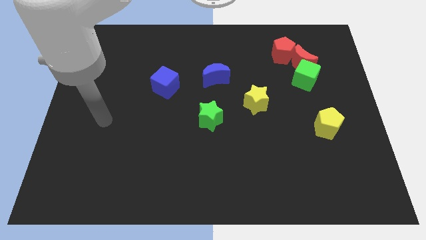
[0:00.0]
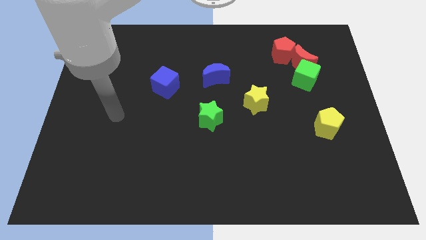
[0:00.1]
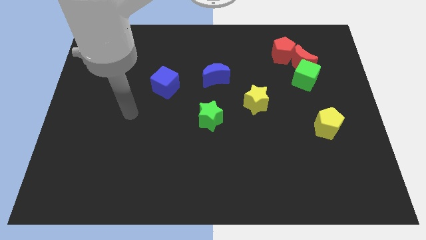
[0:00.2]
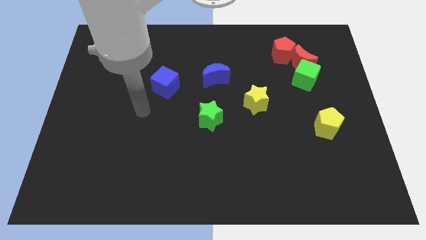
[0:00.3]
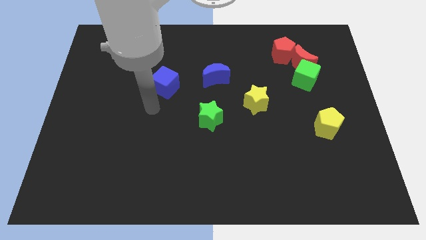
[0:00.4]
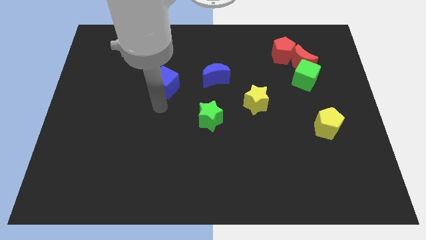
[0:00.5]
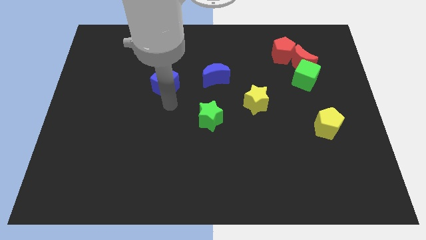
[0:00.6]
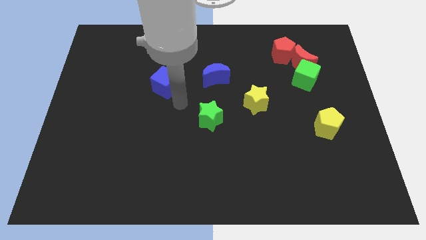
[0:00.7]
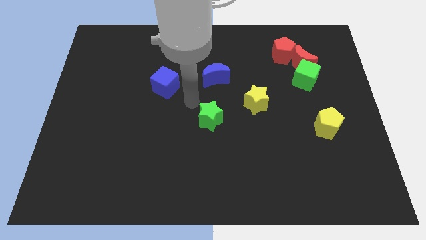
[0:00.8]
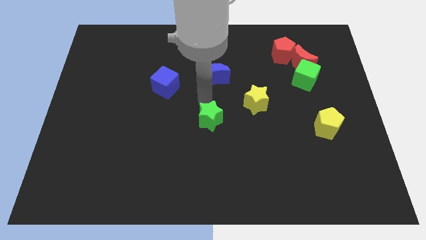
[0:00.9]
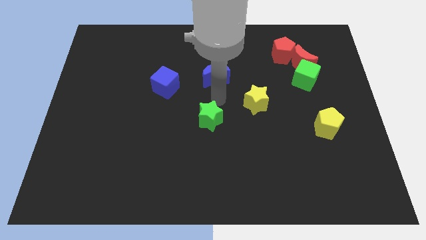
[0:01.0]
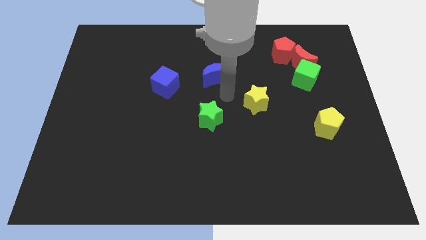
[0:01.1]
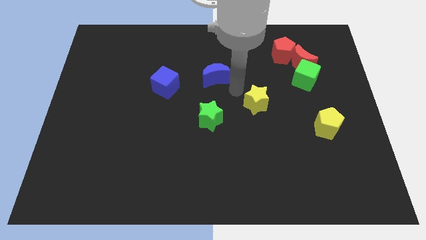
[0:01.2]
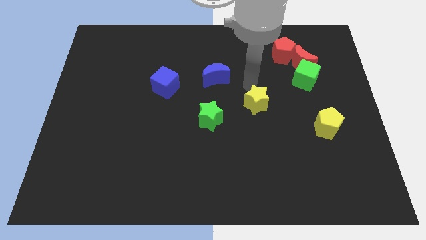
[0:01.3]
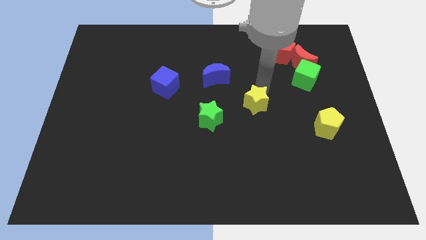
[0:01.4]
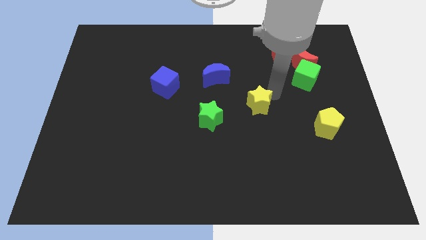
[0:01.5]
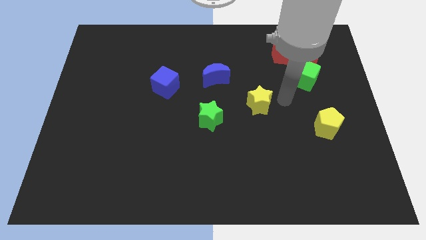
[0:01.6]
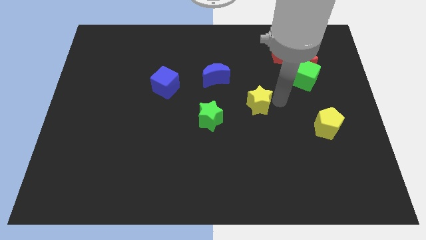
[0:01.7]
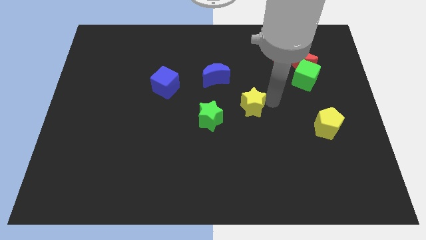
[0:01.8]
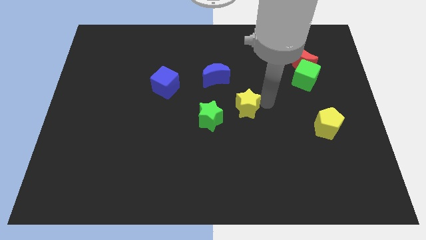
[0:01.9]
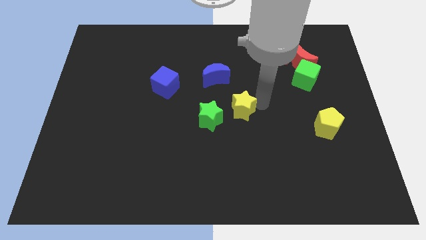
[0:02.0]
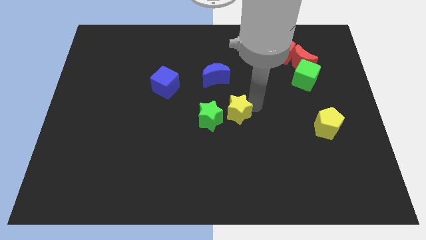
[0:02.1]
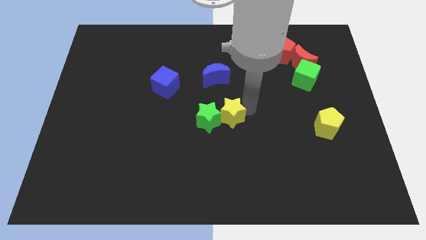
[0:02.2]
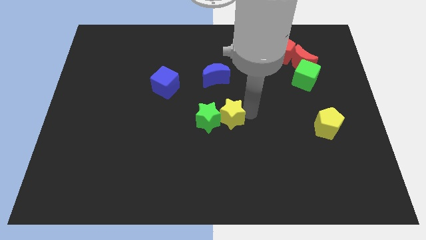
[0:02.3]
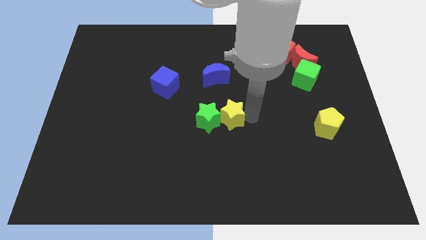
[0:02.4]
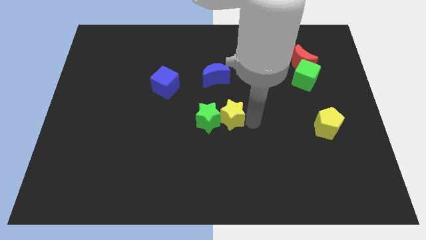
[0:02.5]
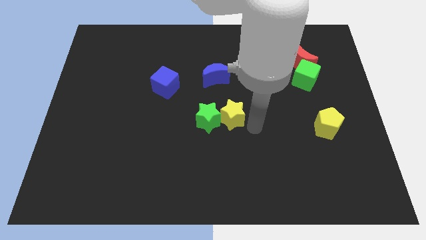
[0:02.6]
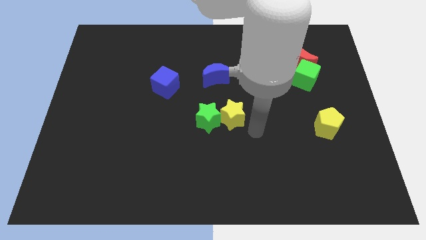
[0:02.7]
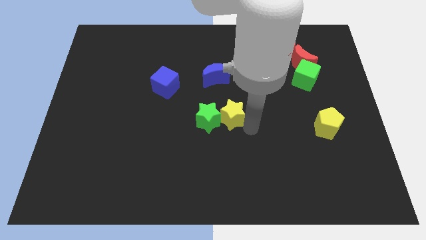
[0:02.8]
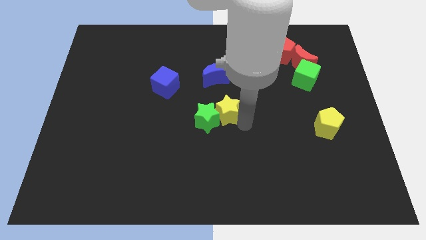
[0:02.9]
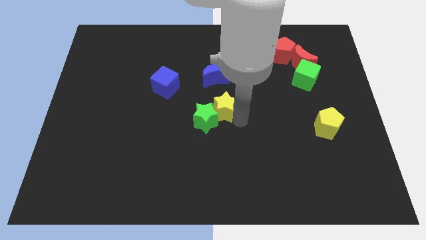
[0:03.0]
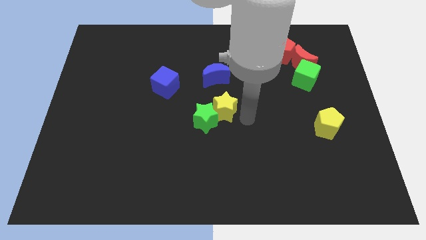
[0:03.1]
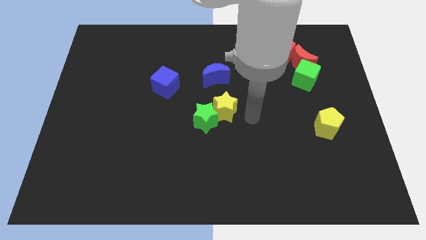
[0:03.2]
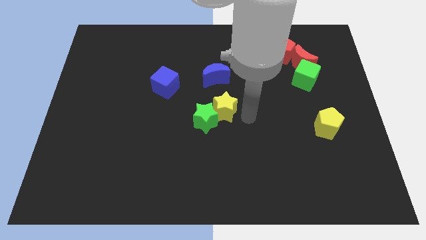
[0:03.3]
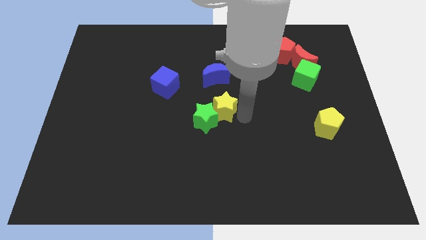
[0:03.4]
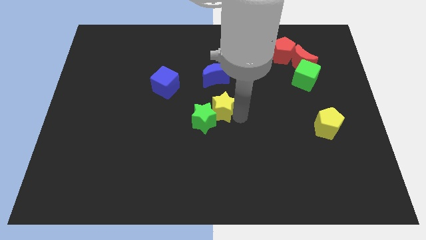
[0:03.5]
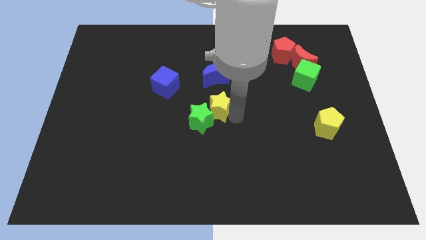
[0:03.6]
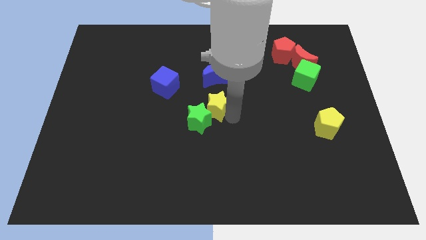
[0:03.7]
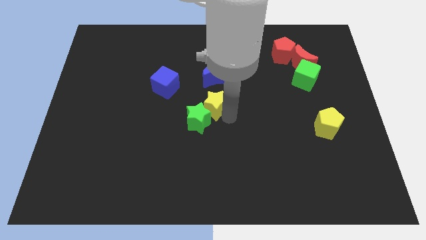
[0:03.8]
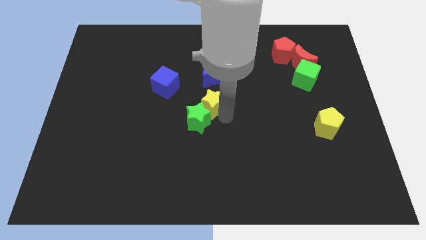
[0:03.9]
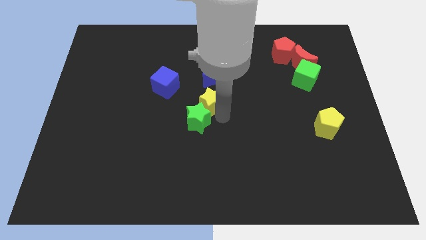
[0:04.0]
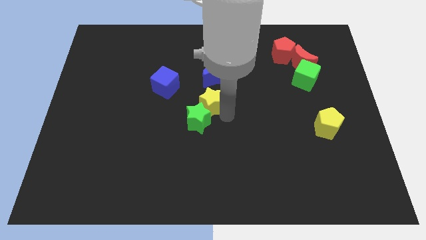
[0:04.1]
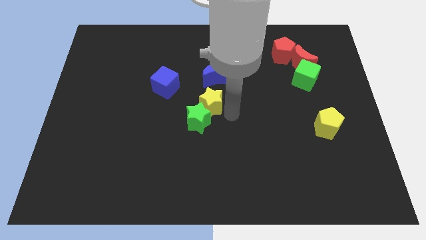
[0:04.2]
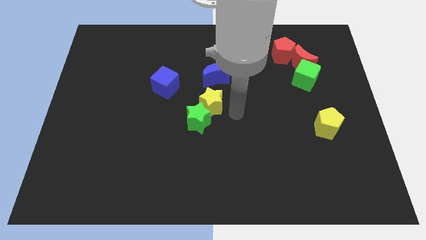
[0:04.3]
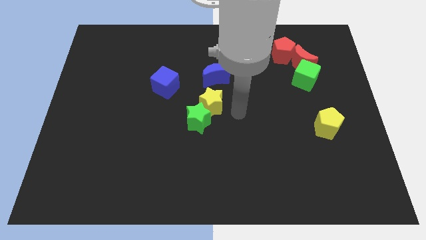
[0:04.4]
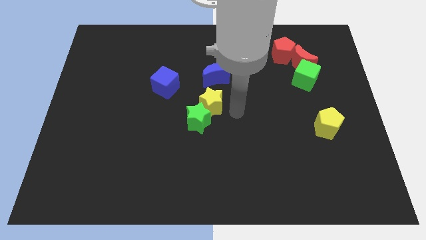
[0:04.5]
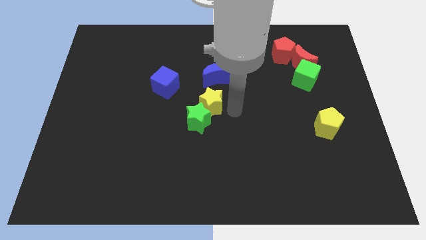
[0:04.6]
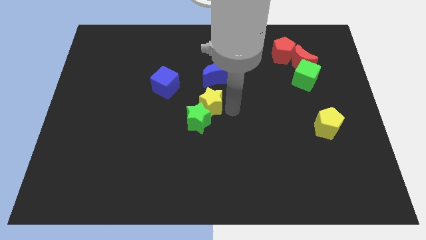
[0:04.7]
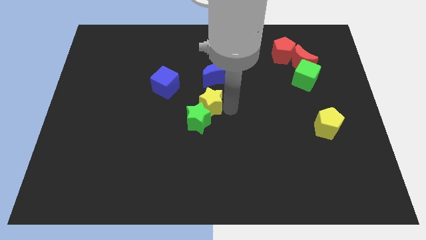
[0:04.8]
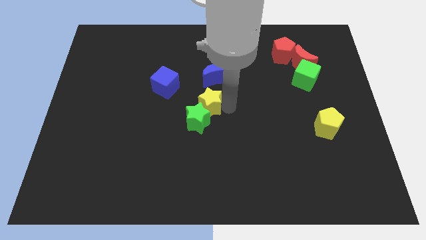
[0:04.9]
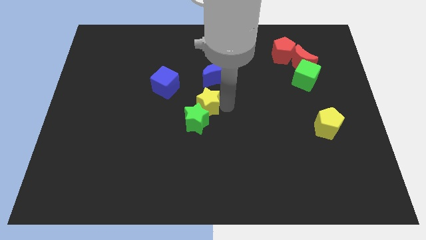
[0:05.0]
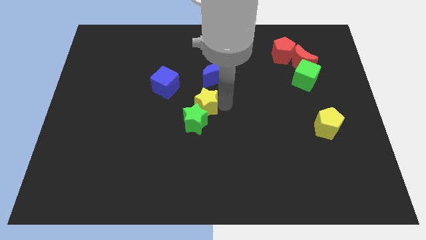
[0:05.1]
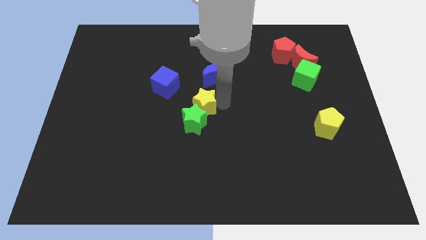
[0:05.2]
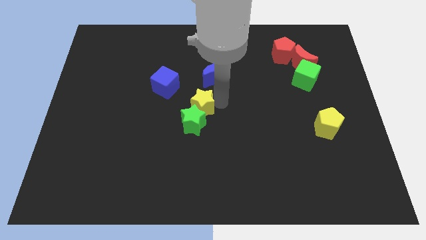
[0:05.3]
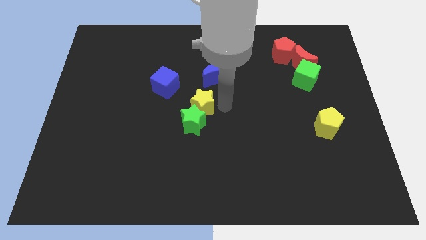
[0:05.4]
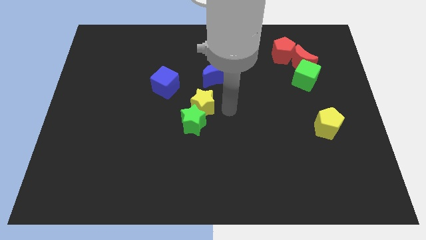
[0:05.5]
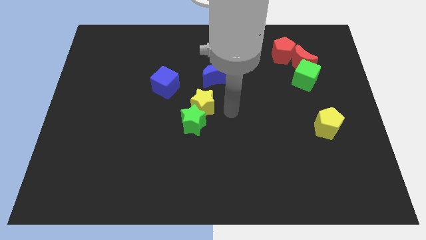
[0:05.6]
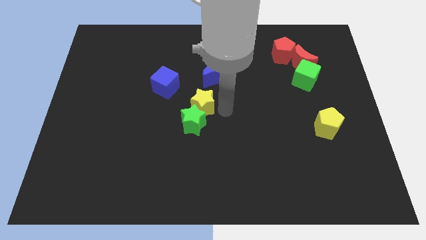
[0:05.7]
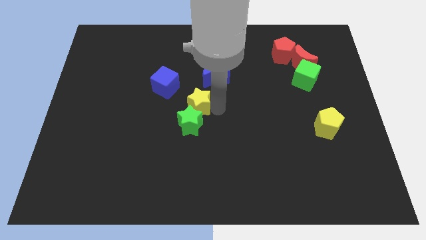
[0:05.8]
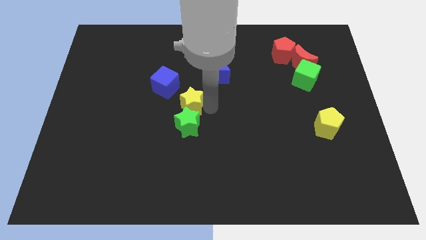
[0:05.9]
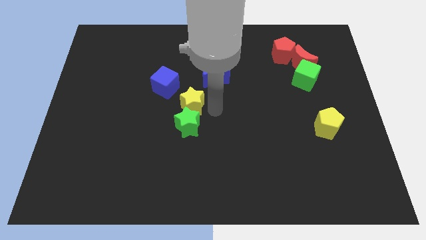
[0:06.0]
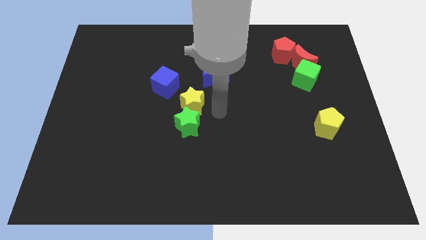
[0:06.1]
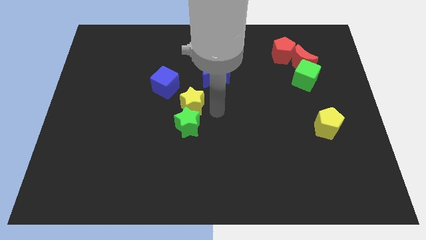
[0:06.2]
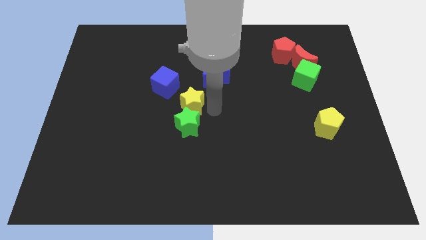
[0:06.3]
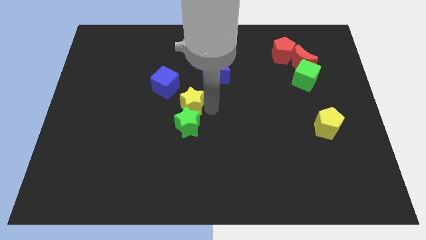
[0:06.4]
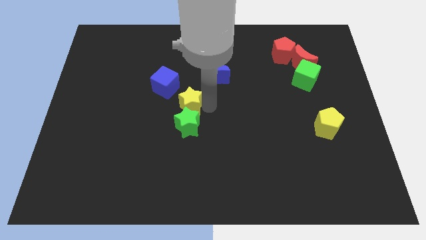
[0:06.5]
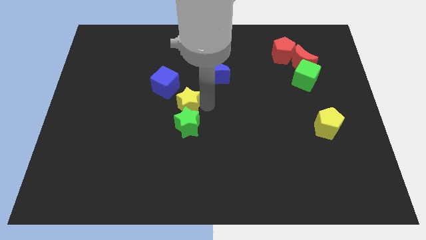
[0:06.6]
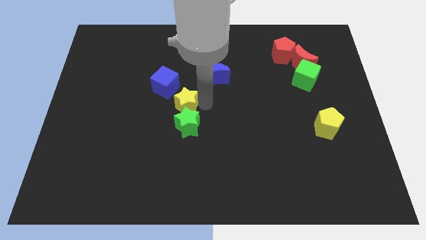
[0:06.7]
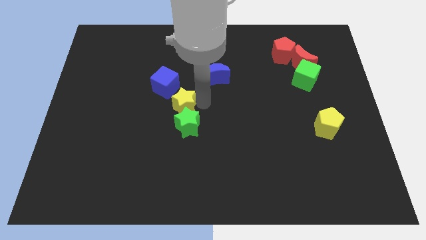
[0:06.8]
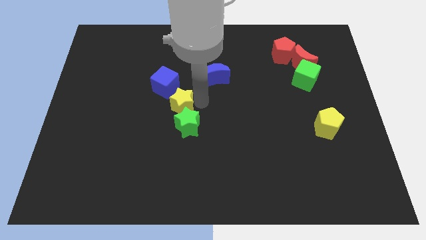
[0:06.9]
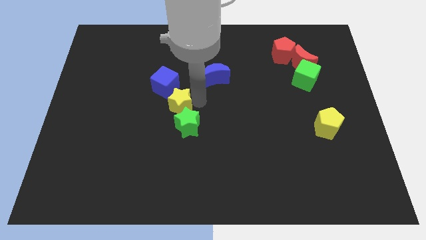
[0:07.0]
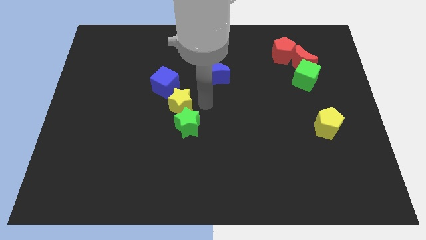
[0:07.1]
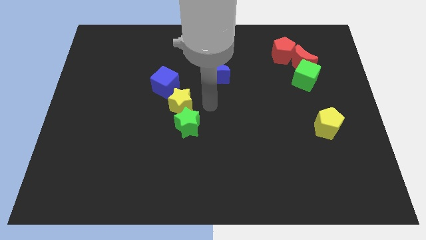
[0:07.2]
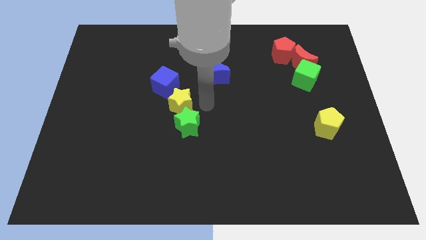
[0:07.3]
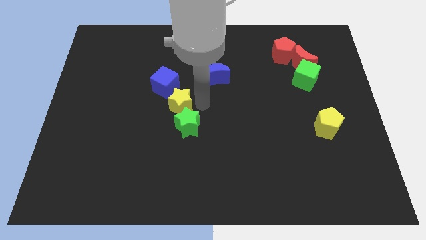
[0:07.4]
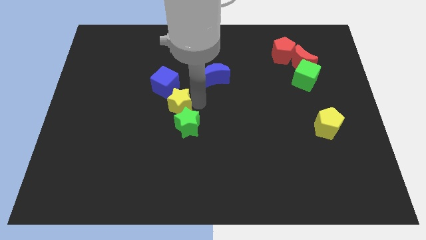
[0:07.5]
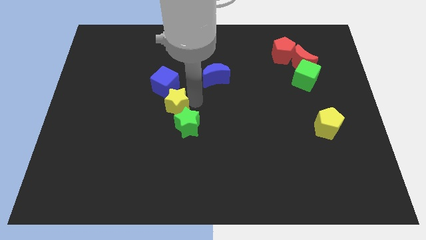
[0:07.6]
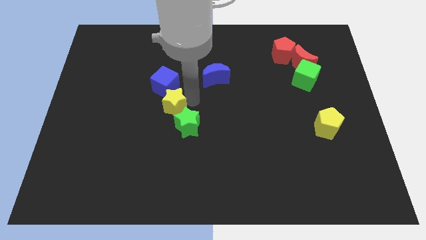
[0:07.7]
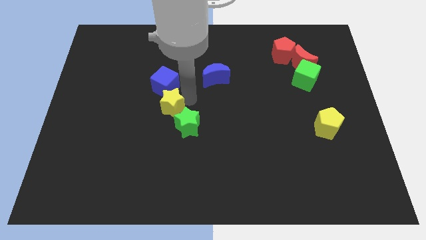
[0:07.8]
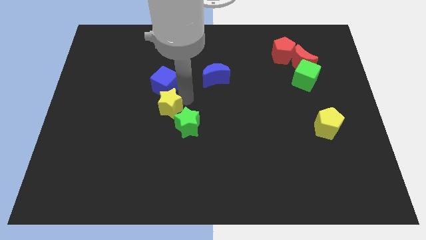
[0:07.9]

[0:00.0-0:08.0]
push the yellow star left
